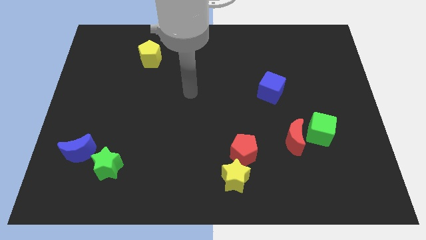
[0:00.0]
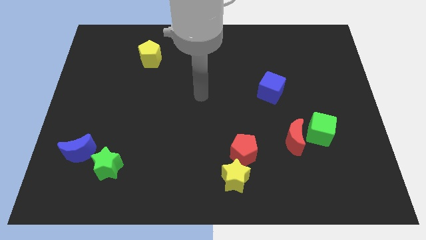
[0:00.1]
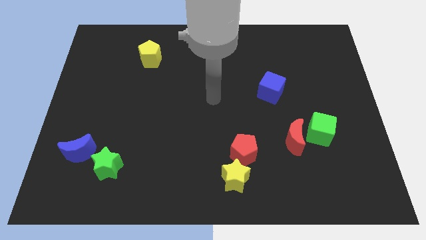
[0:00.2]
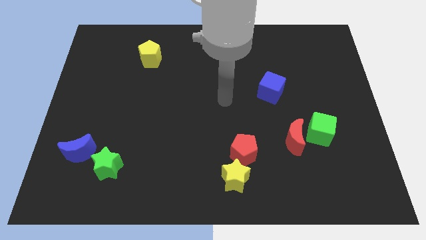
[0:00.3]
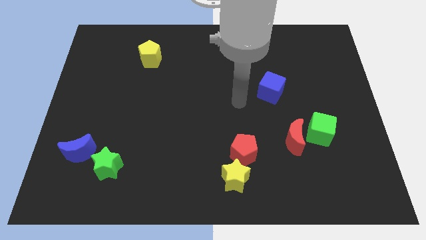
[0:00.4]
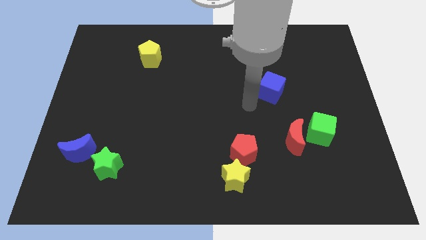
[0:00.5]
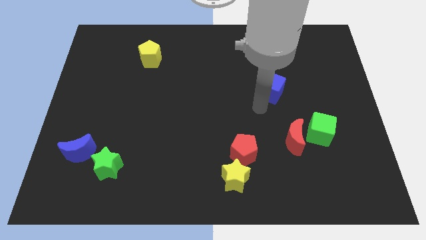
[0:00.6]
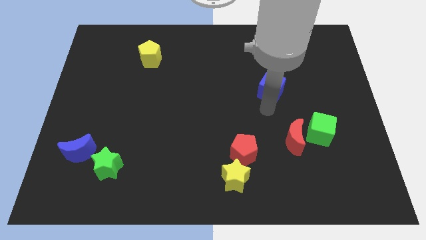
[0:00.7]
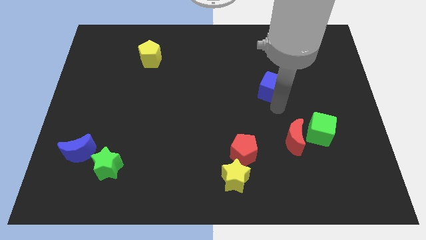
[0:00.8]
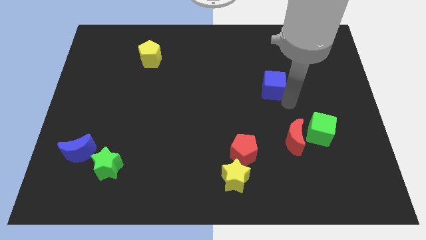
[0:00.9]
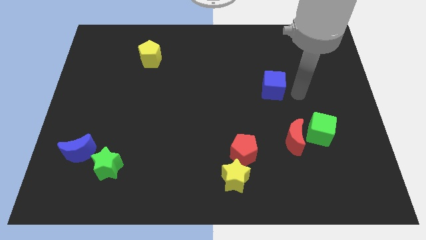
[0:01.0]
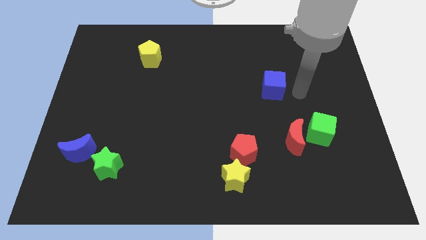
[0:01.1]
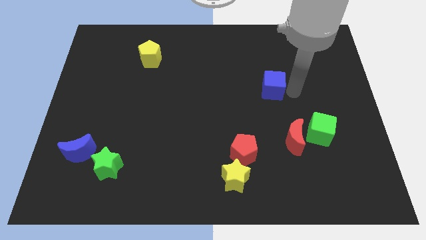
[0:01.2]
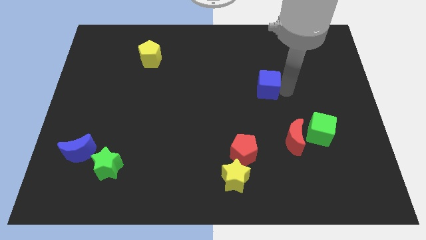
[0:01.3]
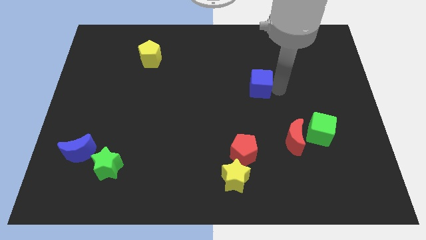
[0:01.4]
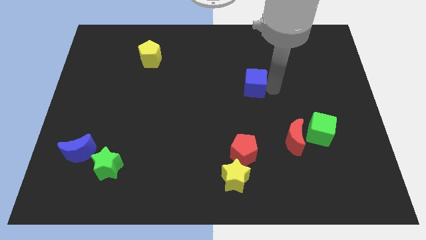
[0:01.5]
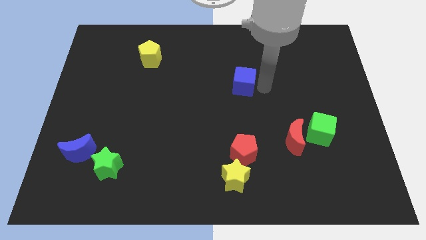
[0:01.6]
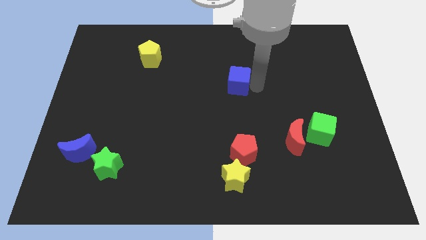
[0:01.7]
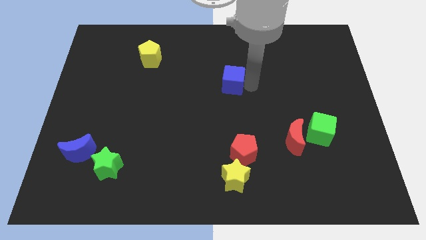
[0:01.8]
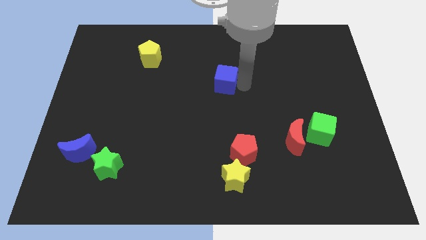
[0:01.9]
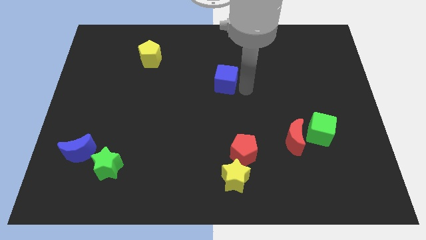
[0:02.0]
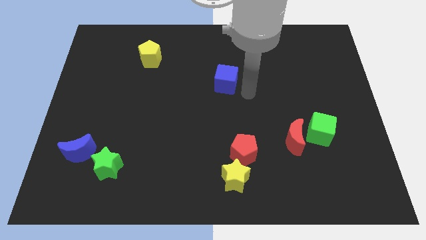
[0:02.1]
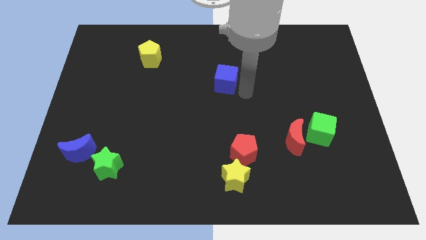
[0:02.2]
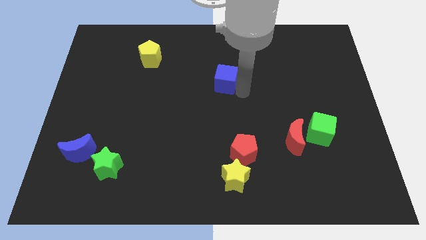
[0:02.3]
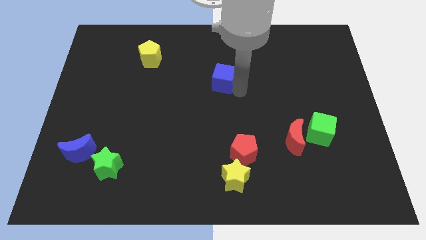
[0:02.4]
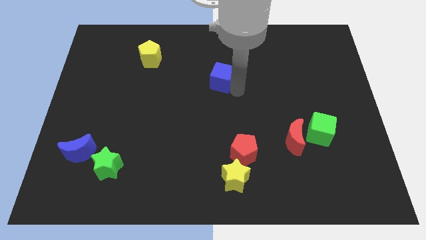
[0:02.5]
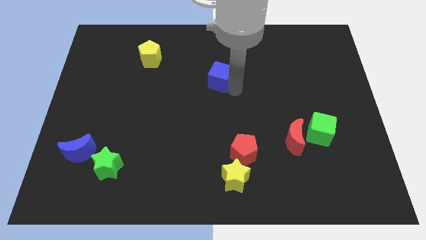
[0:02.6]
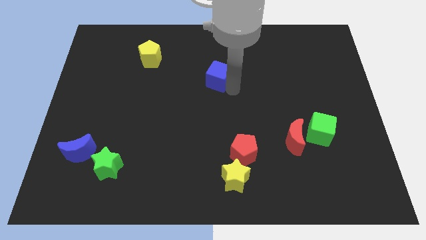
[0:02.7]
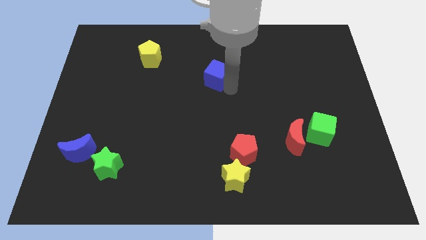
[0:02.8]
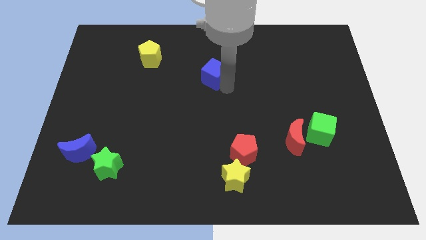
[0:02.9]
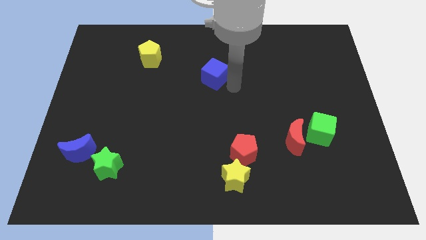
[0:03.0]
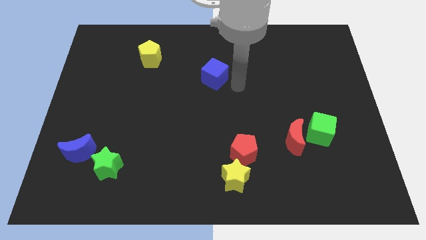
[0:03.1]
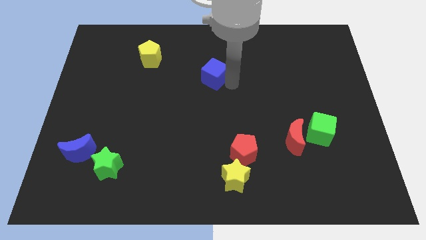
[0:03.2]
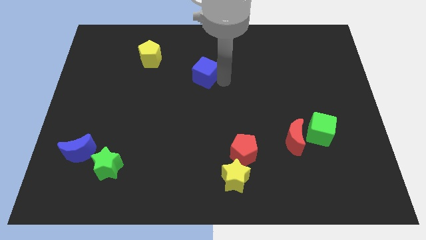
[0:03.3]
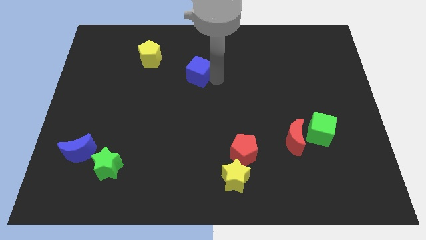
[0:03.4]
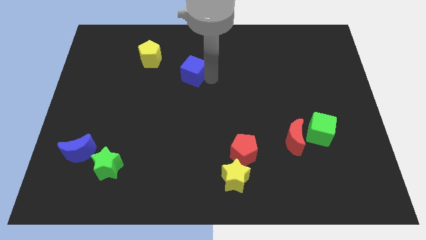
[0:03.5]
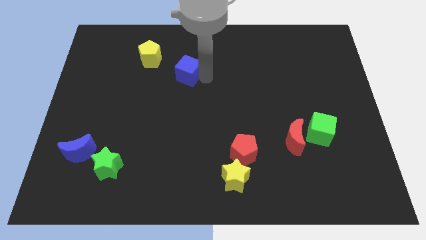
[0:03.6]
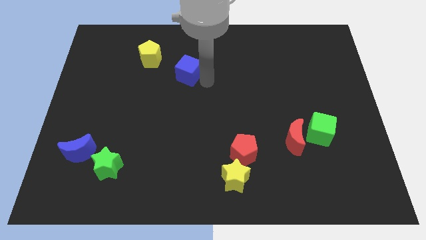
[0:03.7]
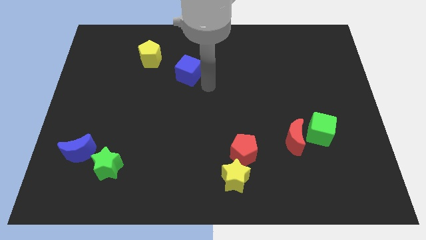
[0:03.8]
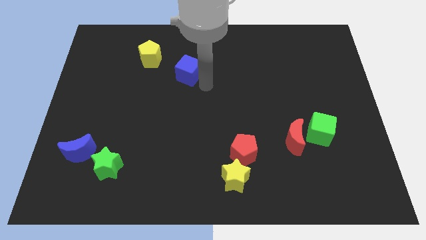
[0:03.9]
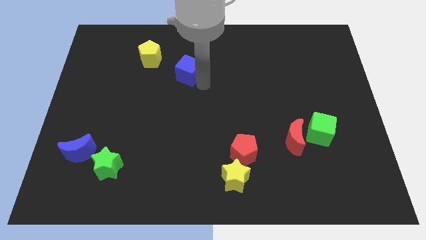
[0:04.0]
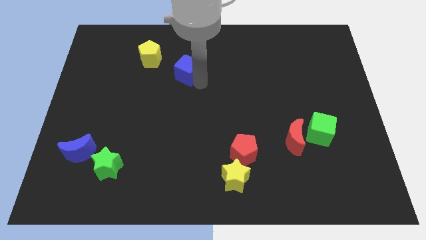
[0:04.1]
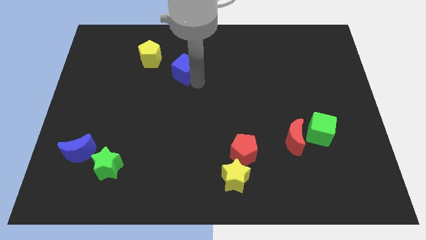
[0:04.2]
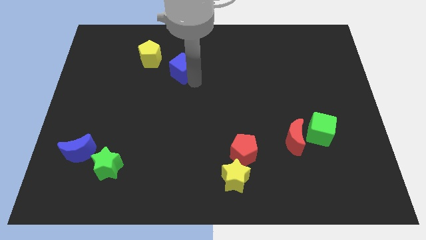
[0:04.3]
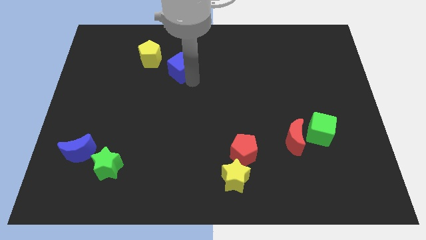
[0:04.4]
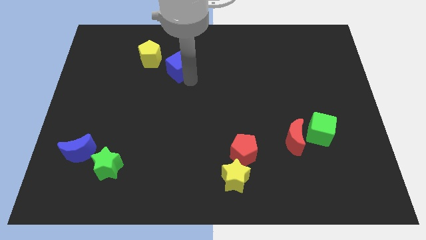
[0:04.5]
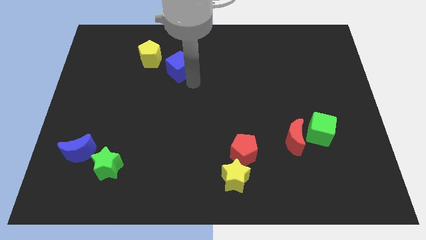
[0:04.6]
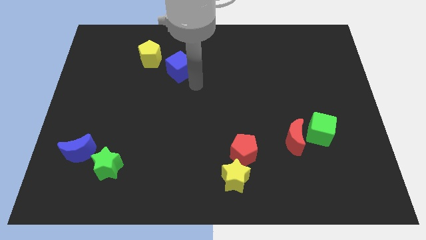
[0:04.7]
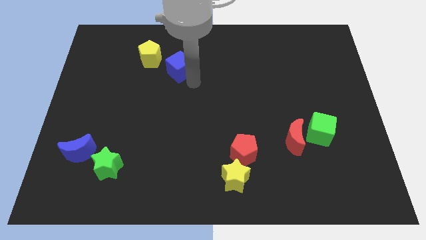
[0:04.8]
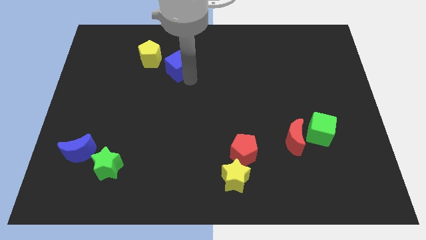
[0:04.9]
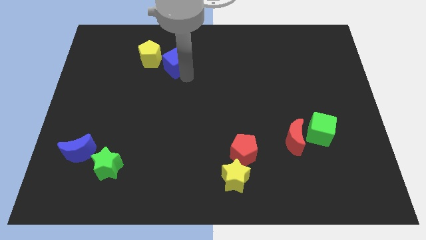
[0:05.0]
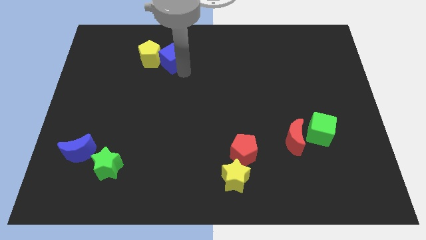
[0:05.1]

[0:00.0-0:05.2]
put the blue cube towards the yellow pentagon

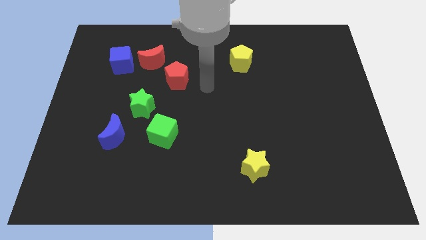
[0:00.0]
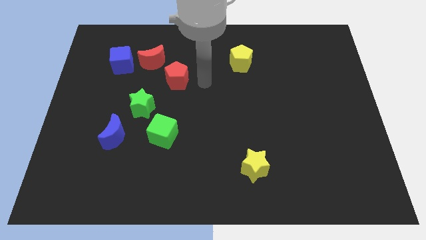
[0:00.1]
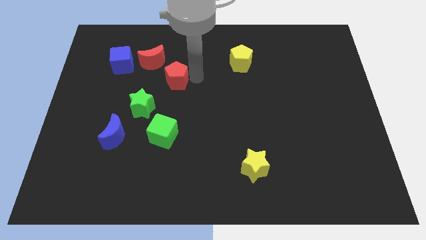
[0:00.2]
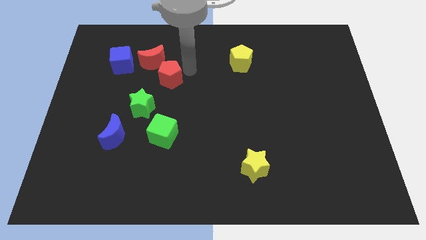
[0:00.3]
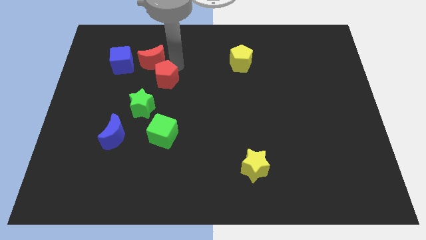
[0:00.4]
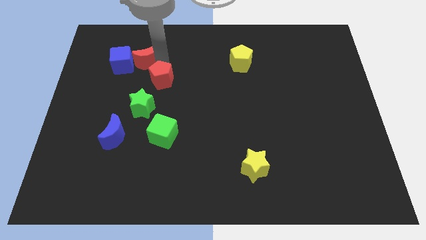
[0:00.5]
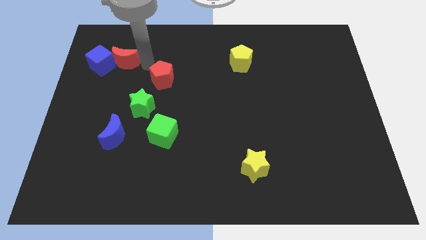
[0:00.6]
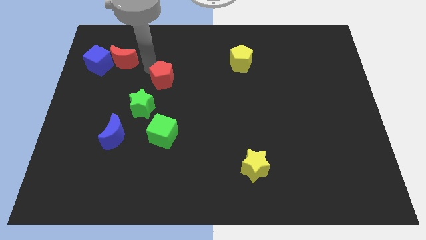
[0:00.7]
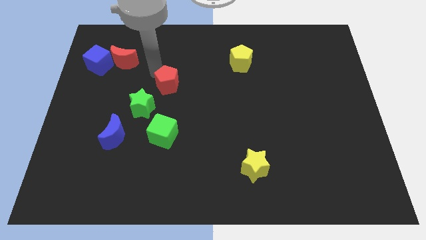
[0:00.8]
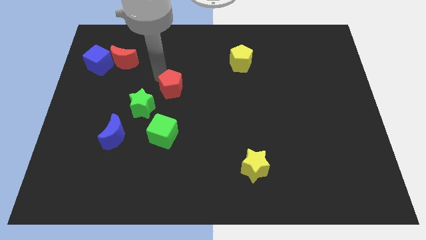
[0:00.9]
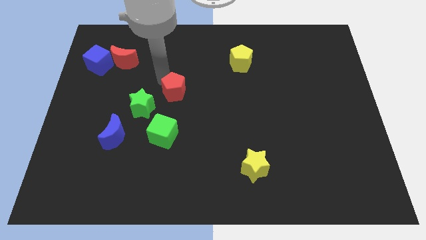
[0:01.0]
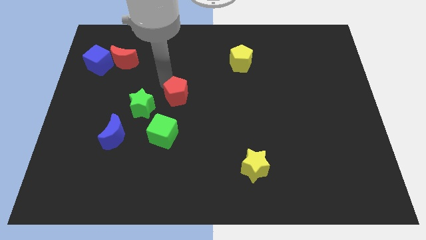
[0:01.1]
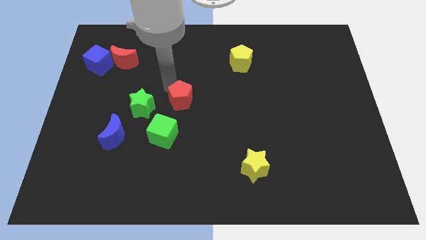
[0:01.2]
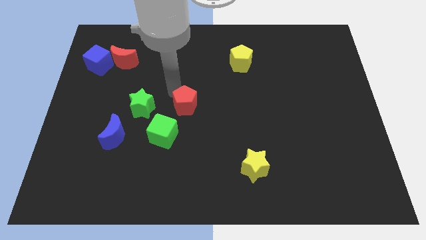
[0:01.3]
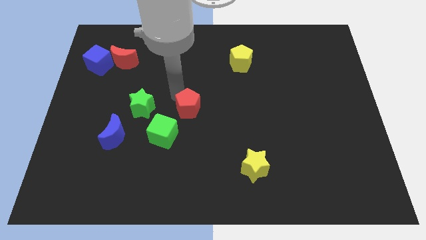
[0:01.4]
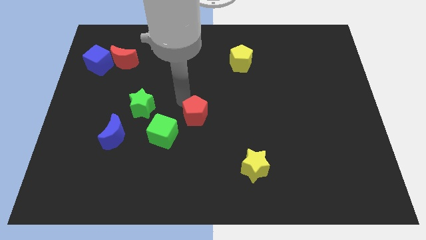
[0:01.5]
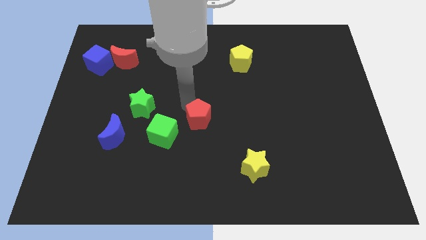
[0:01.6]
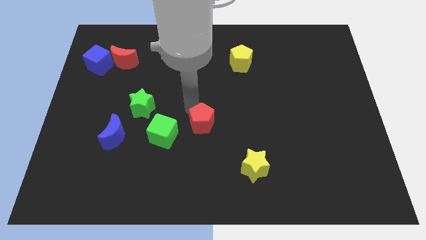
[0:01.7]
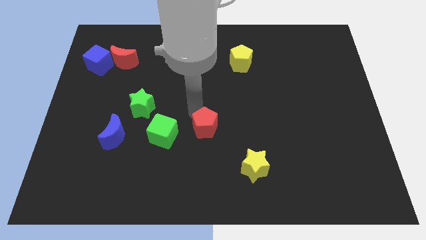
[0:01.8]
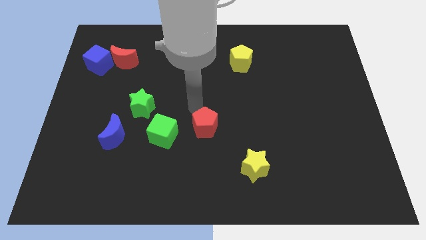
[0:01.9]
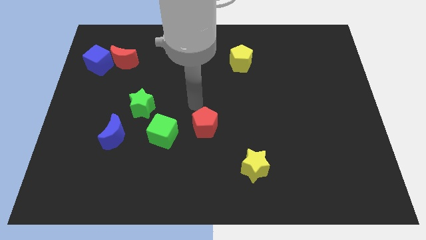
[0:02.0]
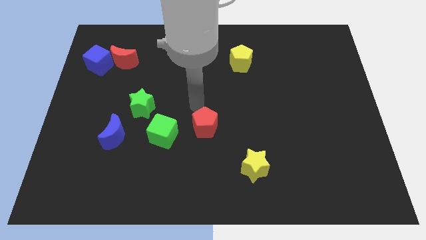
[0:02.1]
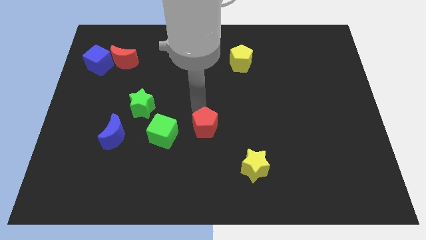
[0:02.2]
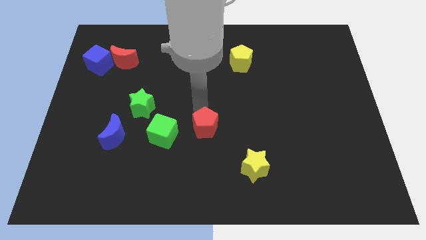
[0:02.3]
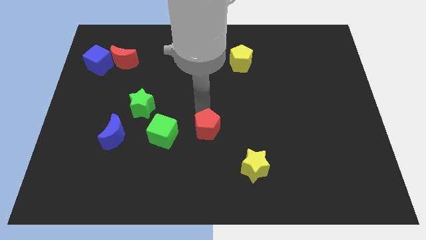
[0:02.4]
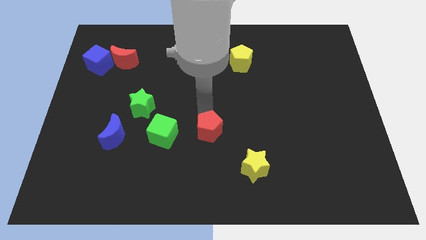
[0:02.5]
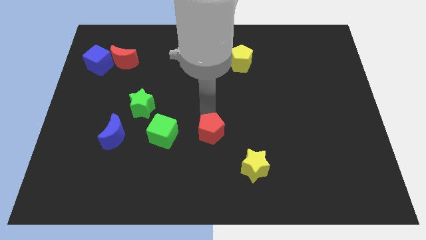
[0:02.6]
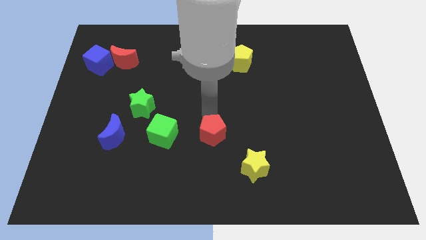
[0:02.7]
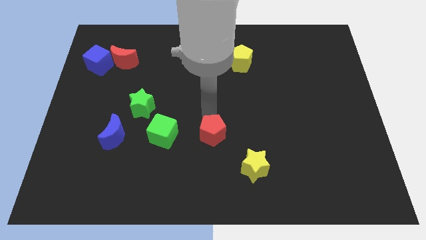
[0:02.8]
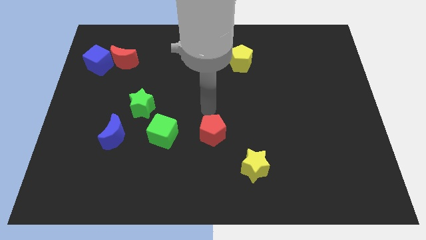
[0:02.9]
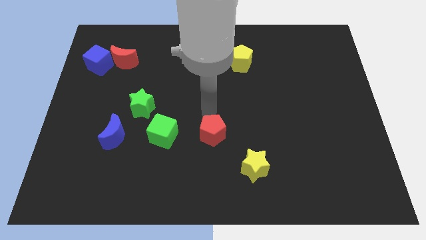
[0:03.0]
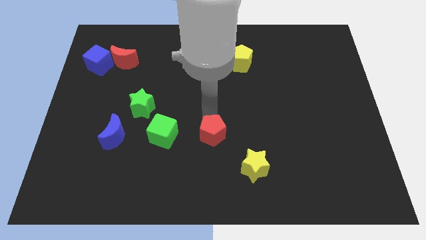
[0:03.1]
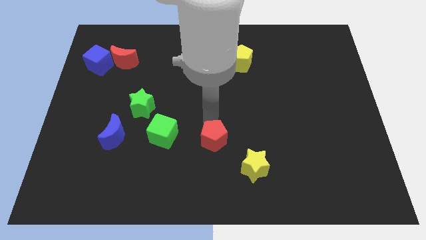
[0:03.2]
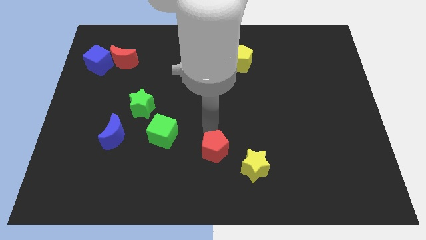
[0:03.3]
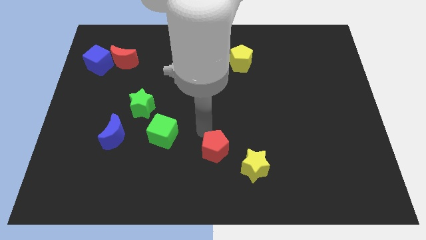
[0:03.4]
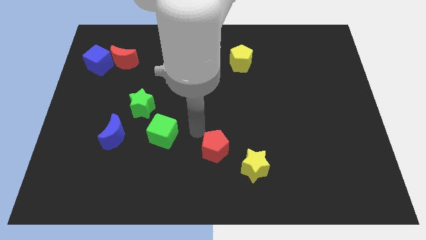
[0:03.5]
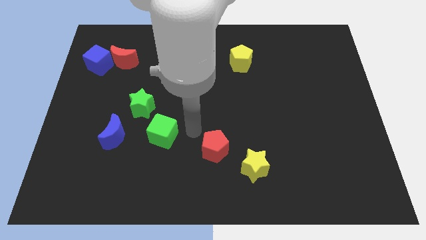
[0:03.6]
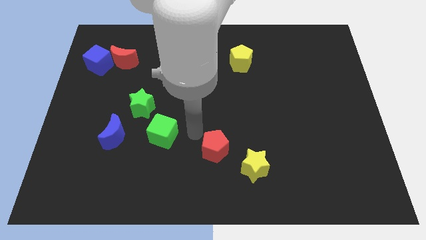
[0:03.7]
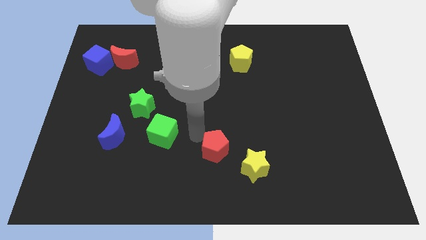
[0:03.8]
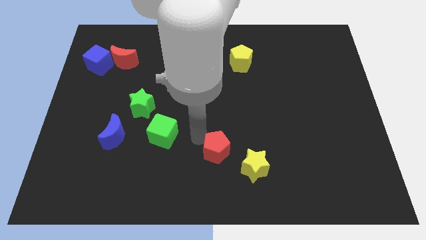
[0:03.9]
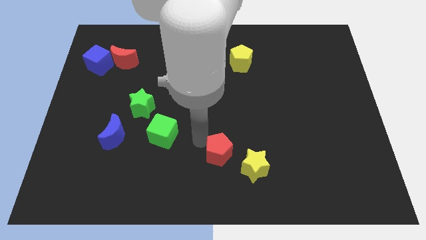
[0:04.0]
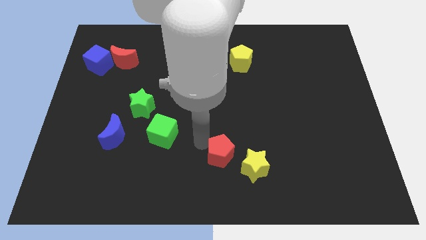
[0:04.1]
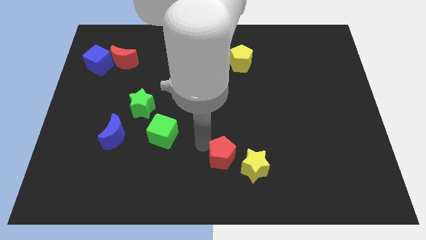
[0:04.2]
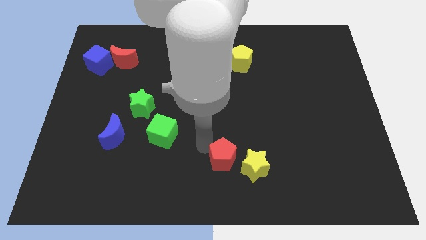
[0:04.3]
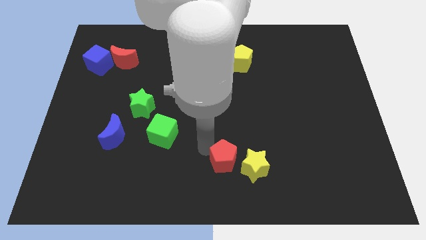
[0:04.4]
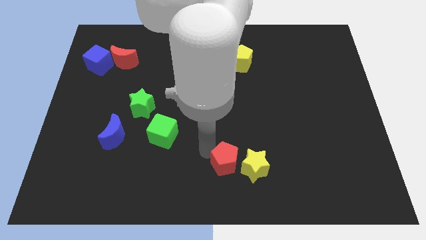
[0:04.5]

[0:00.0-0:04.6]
push the red pentagon towards the yellow star
